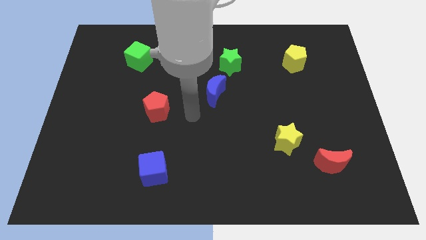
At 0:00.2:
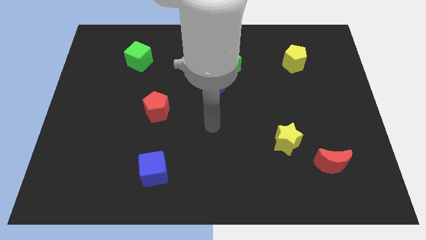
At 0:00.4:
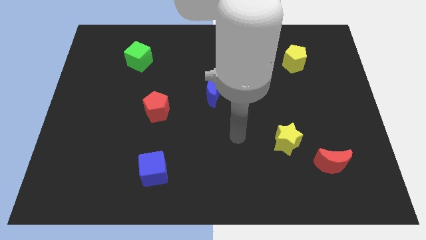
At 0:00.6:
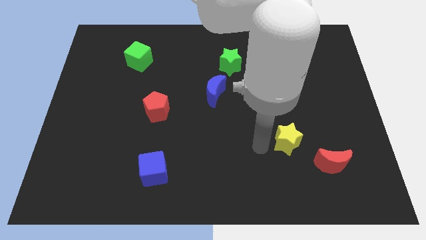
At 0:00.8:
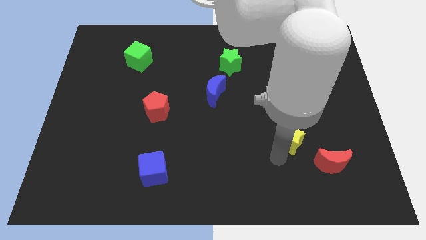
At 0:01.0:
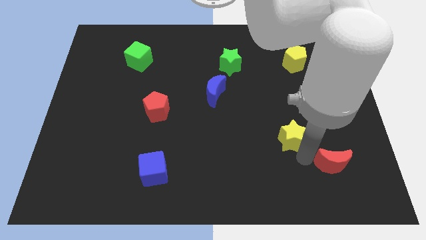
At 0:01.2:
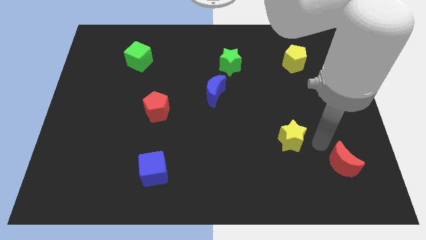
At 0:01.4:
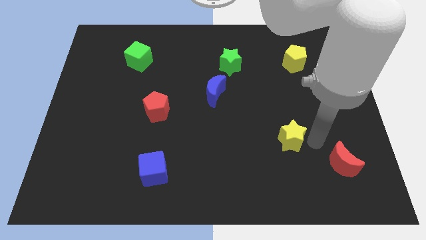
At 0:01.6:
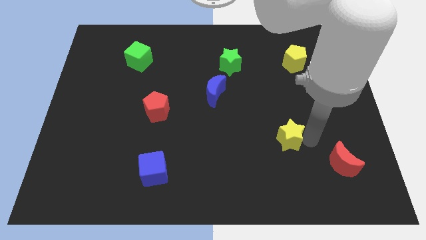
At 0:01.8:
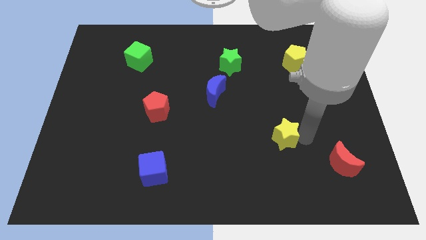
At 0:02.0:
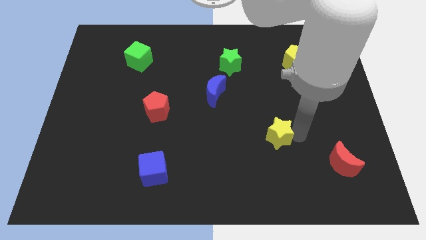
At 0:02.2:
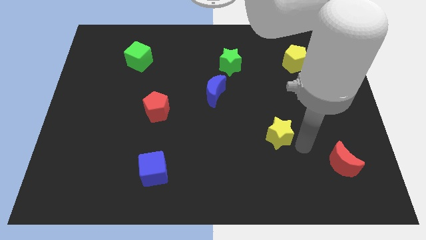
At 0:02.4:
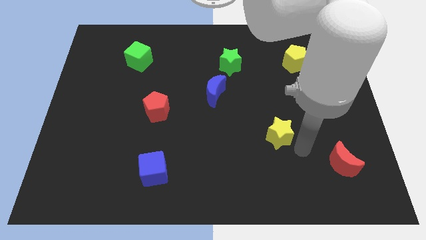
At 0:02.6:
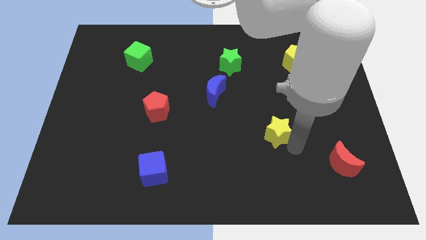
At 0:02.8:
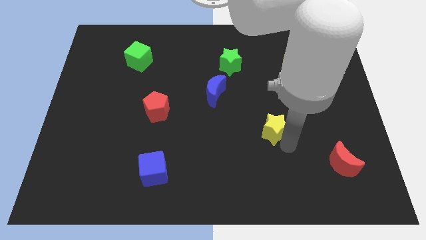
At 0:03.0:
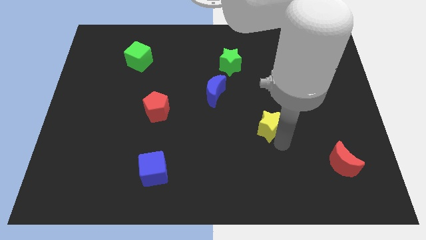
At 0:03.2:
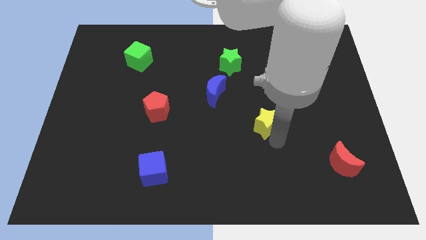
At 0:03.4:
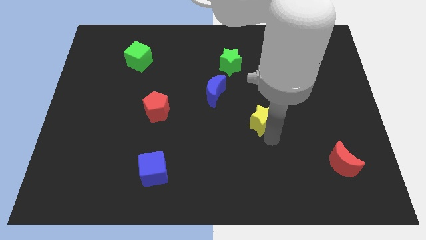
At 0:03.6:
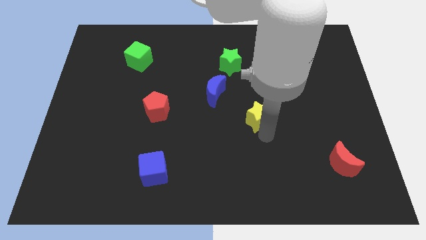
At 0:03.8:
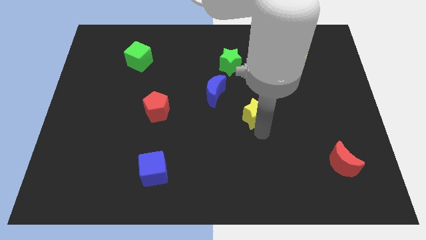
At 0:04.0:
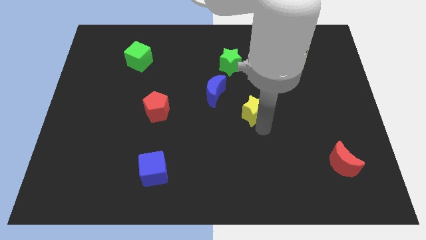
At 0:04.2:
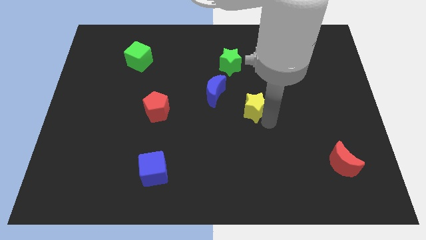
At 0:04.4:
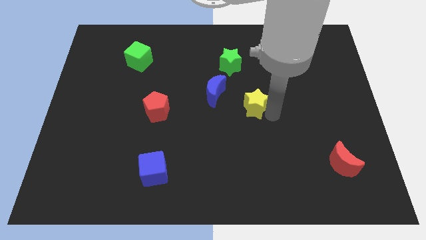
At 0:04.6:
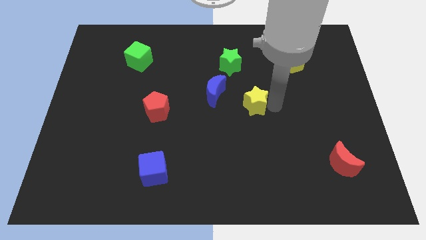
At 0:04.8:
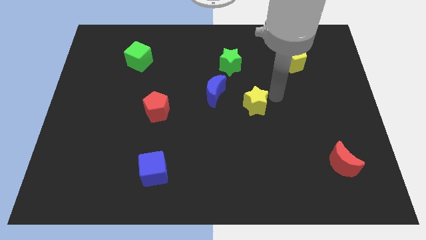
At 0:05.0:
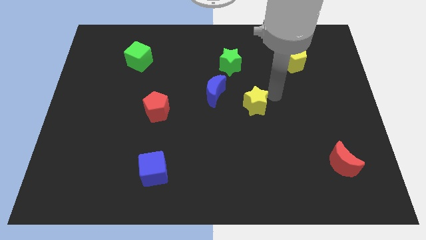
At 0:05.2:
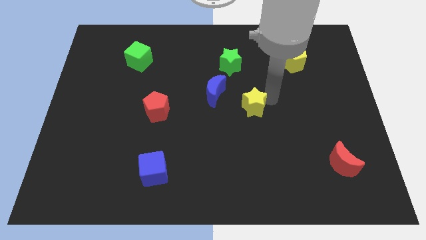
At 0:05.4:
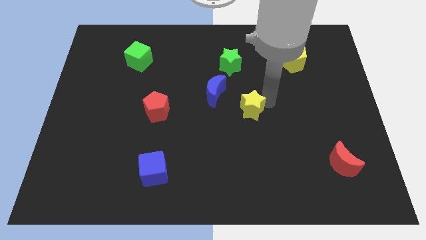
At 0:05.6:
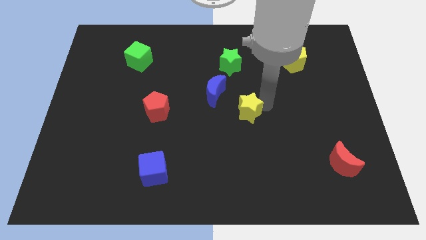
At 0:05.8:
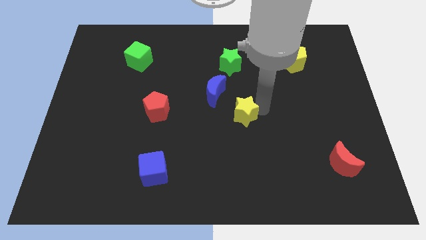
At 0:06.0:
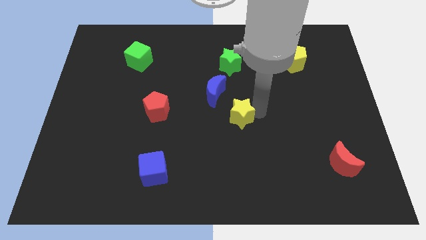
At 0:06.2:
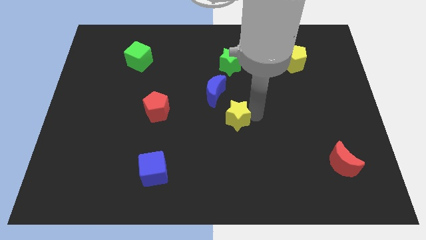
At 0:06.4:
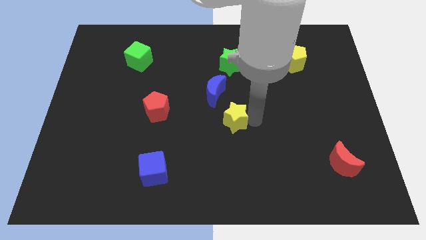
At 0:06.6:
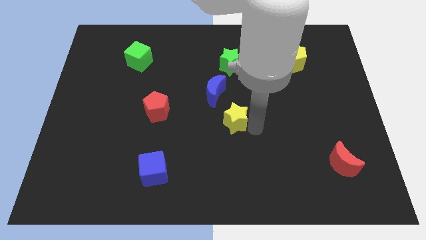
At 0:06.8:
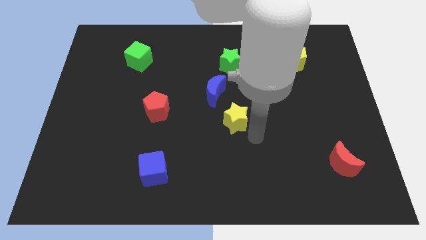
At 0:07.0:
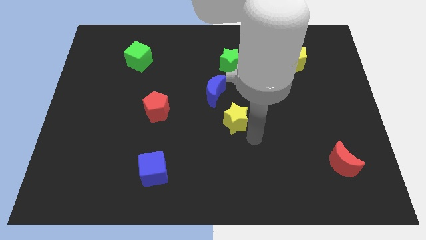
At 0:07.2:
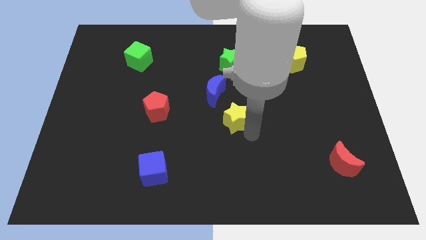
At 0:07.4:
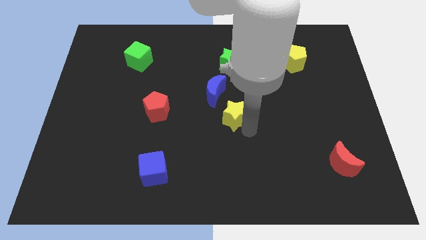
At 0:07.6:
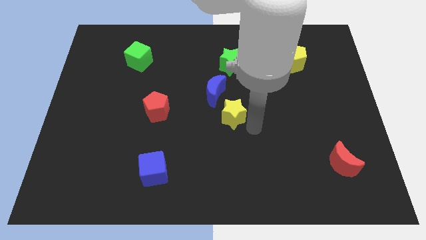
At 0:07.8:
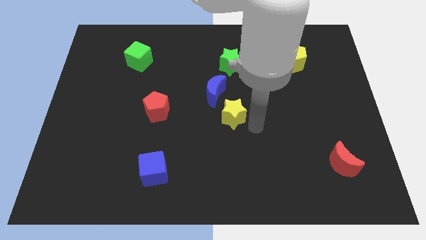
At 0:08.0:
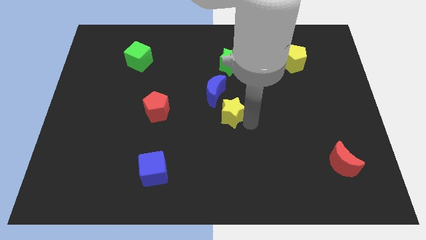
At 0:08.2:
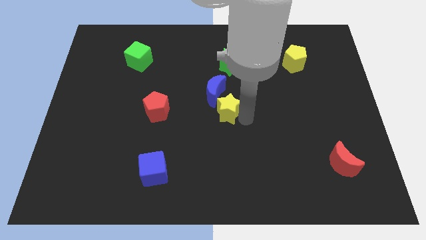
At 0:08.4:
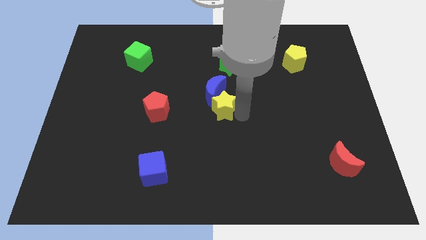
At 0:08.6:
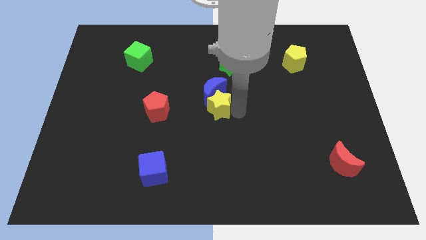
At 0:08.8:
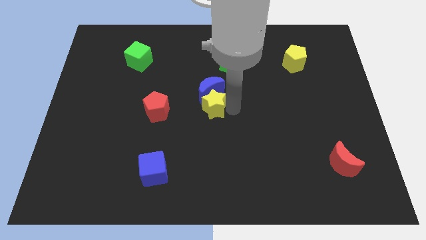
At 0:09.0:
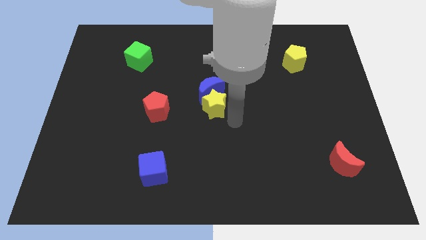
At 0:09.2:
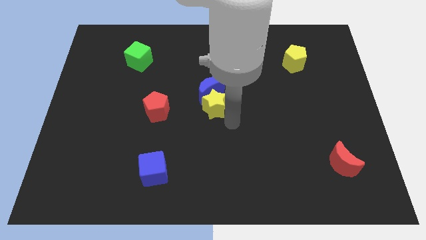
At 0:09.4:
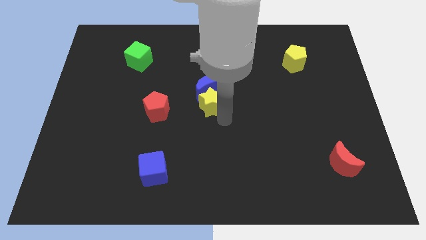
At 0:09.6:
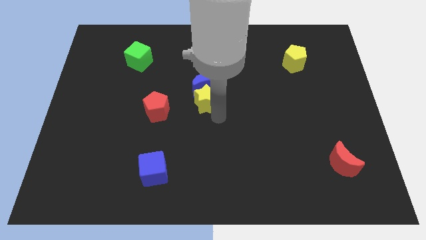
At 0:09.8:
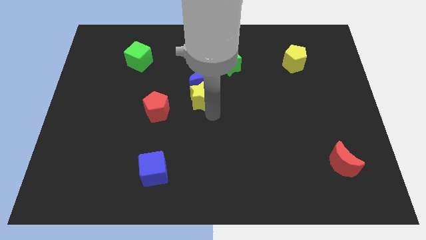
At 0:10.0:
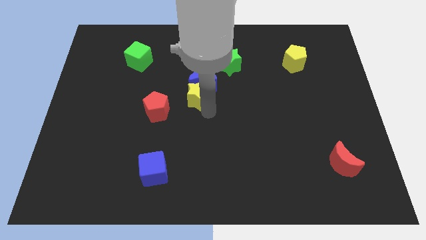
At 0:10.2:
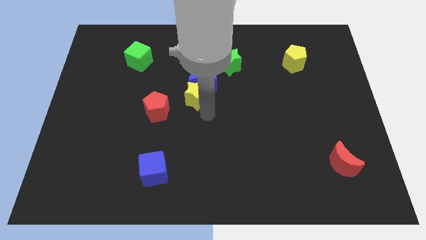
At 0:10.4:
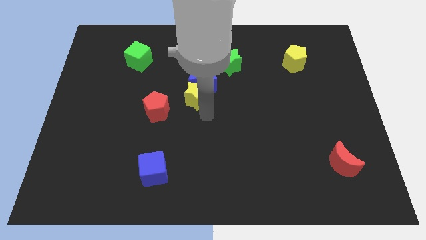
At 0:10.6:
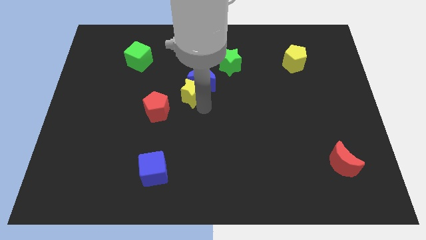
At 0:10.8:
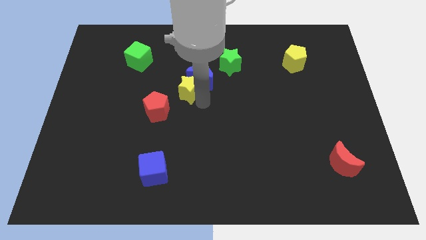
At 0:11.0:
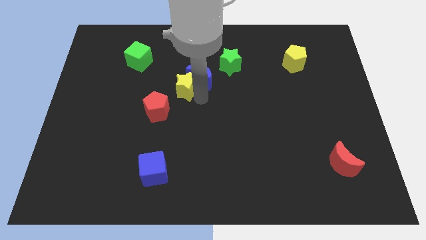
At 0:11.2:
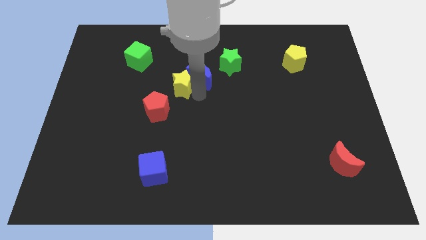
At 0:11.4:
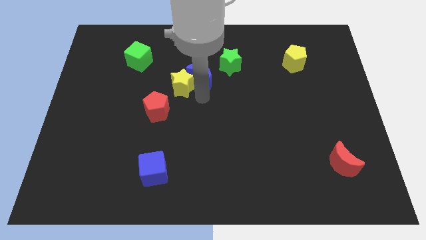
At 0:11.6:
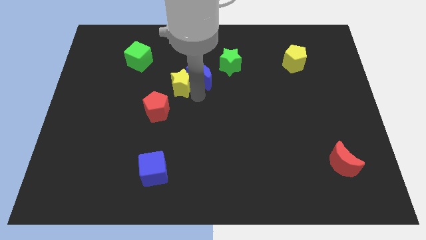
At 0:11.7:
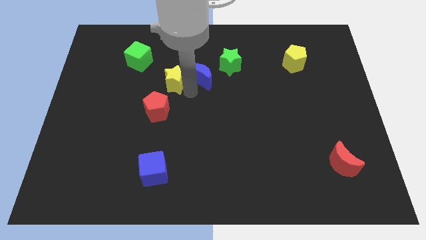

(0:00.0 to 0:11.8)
push the yellow star to the bottom right side of the green cube
